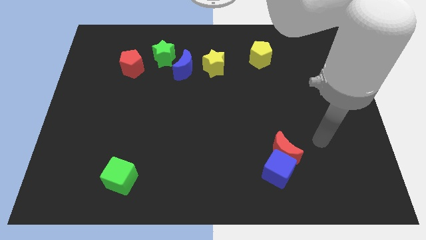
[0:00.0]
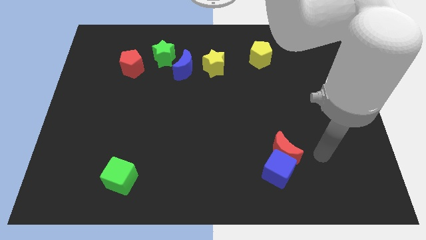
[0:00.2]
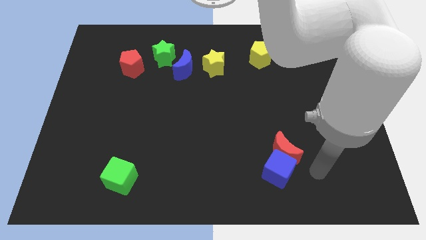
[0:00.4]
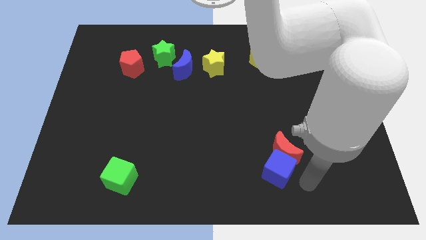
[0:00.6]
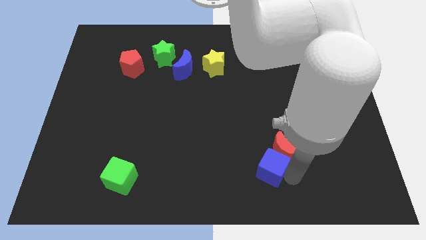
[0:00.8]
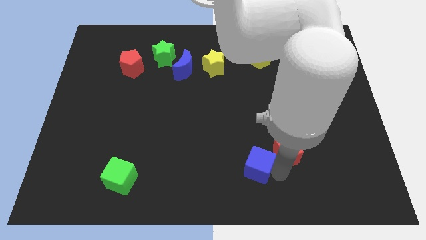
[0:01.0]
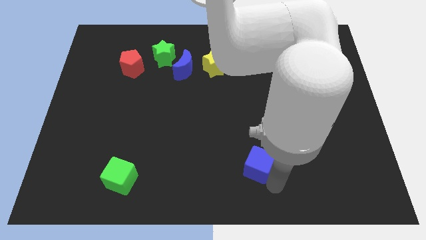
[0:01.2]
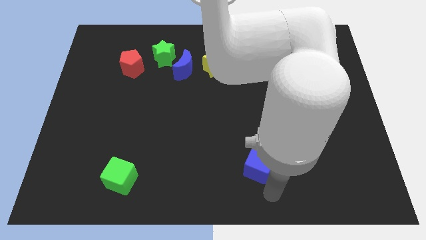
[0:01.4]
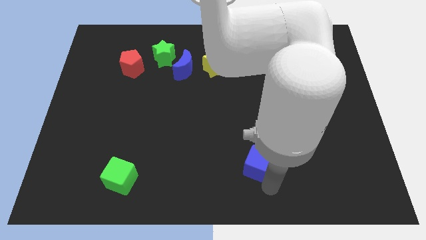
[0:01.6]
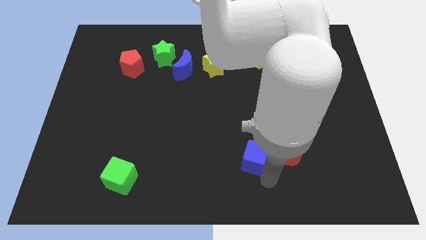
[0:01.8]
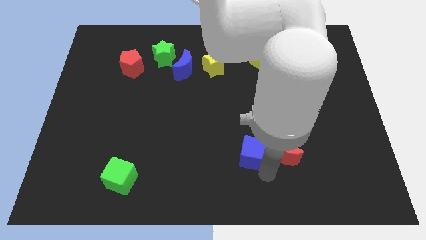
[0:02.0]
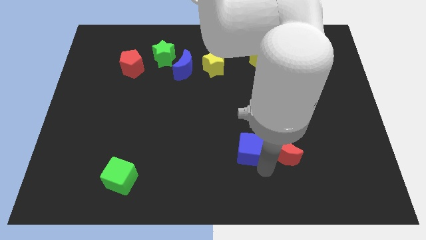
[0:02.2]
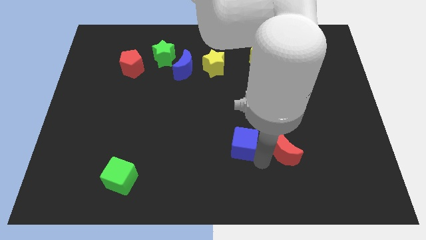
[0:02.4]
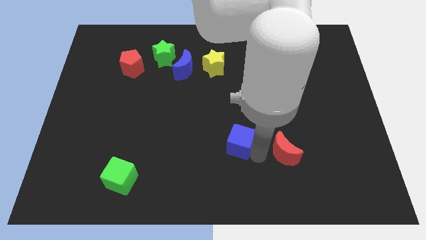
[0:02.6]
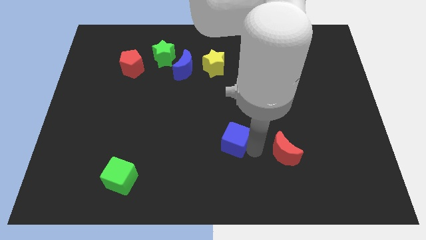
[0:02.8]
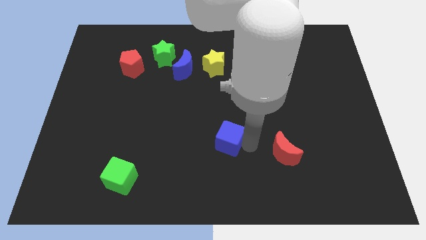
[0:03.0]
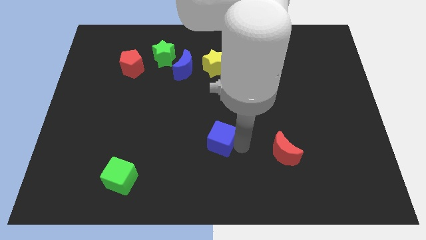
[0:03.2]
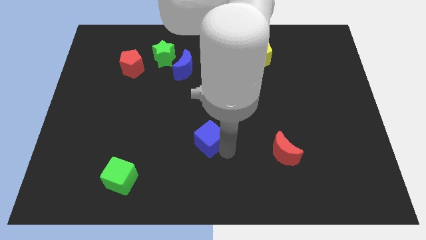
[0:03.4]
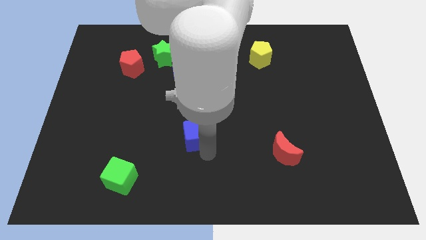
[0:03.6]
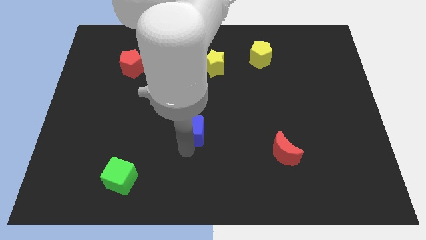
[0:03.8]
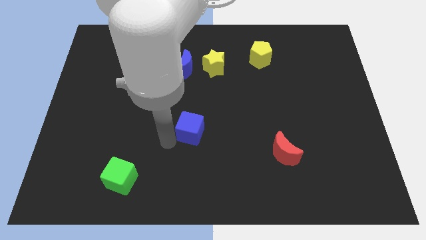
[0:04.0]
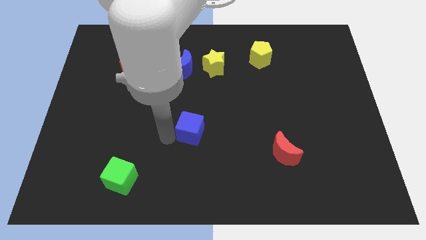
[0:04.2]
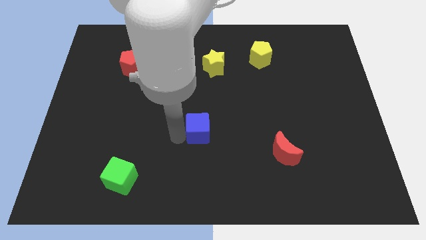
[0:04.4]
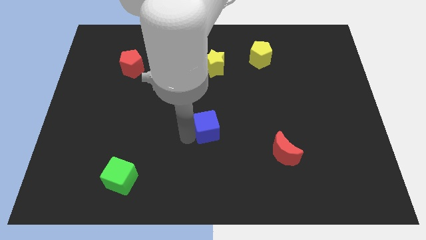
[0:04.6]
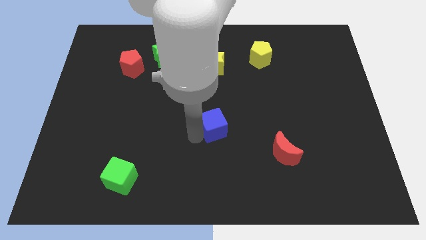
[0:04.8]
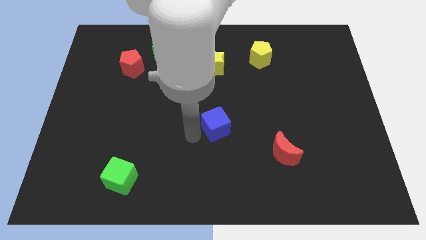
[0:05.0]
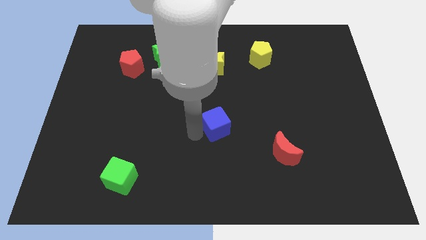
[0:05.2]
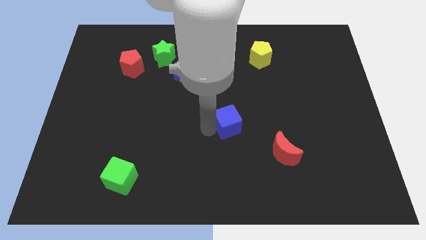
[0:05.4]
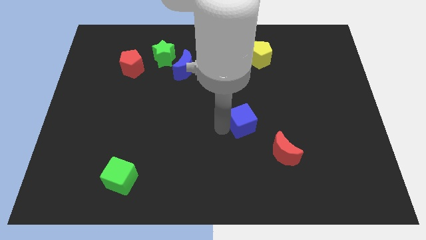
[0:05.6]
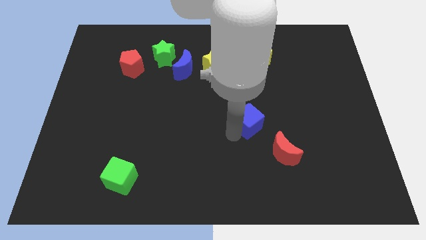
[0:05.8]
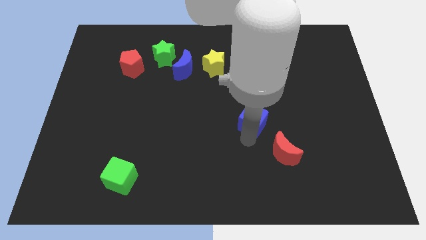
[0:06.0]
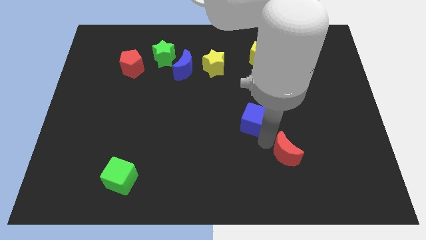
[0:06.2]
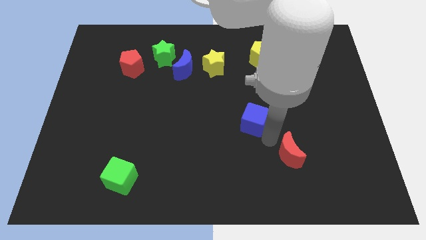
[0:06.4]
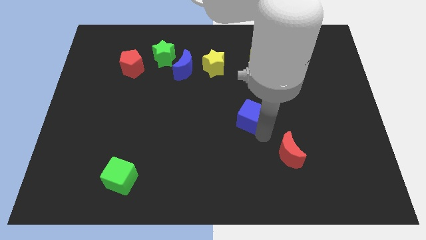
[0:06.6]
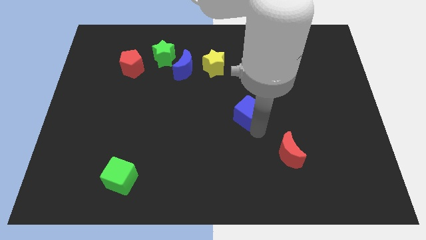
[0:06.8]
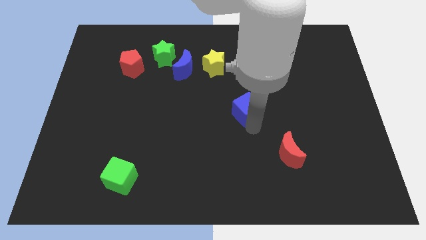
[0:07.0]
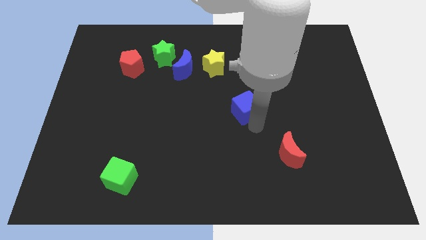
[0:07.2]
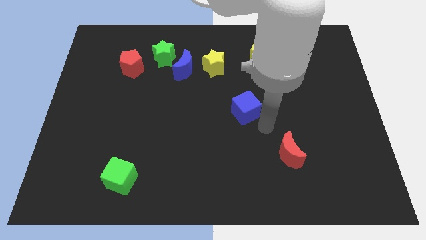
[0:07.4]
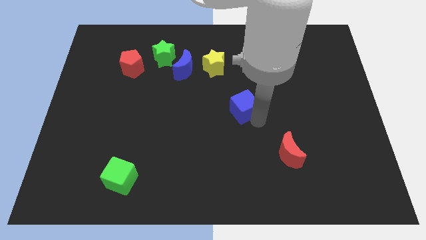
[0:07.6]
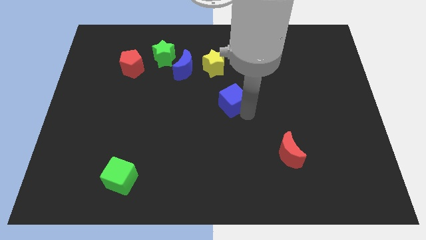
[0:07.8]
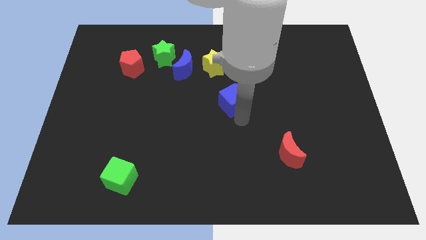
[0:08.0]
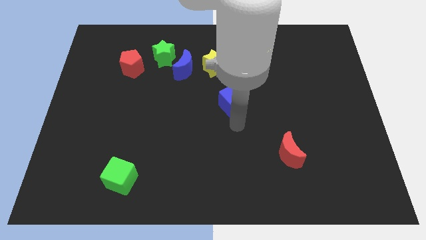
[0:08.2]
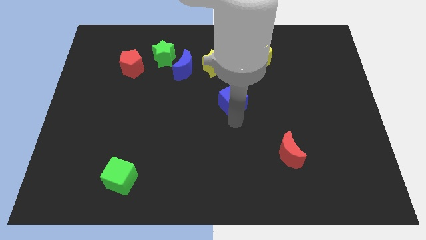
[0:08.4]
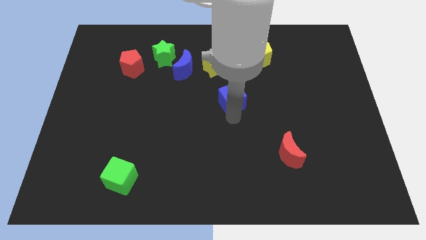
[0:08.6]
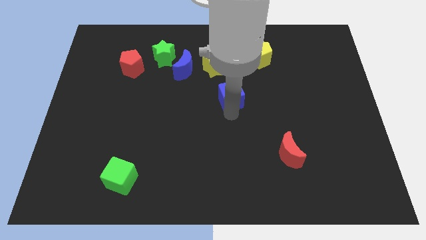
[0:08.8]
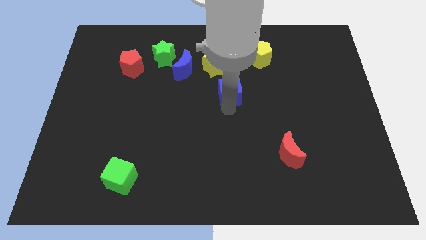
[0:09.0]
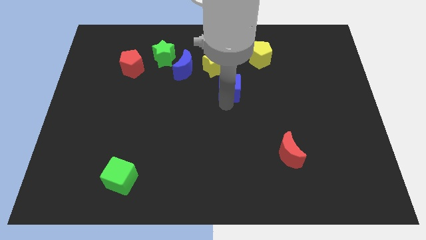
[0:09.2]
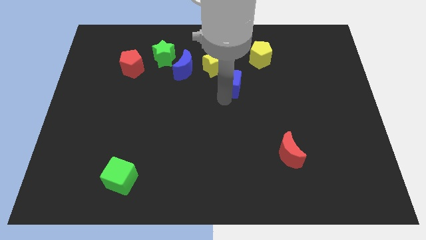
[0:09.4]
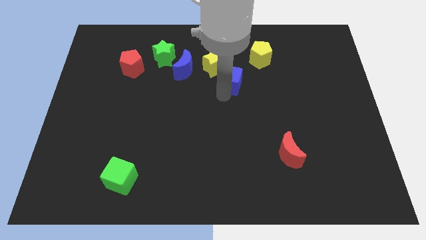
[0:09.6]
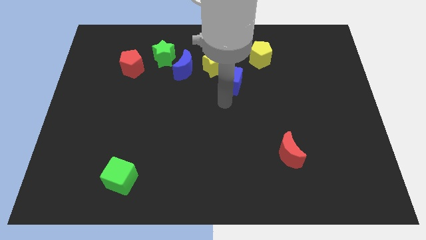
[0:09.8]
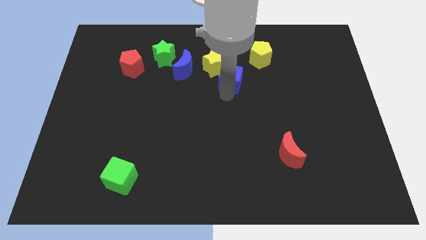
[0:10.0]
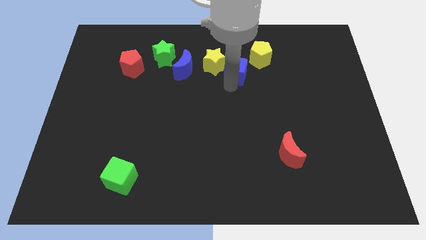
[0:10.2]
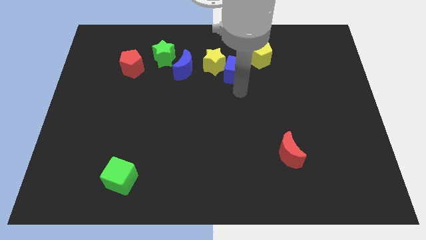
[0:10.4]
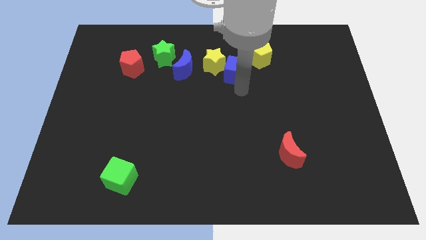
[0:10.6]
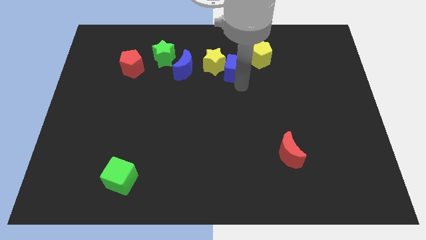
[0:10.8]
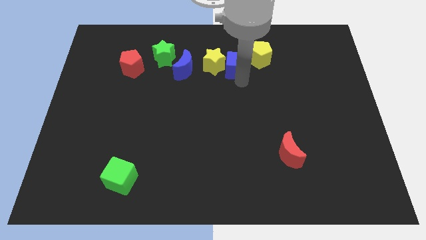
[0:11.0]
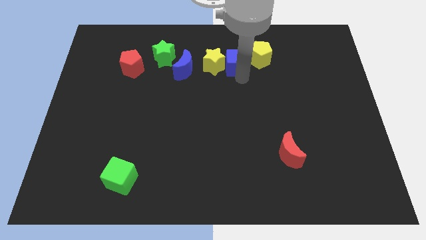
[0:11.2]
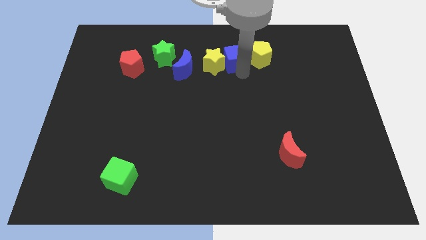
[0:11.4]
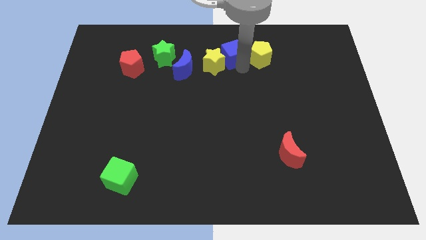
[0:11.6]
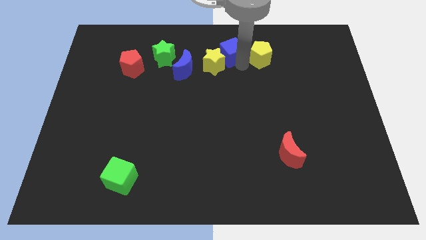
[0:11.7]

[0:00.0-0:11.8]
slide the blue cube to the top

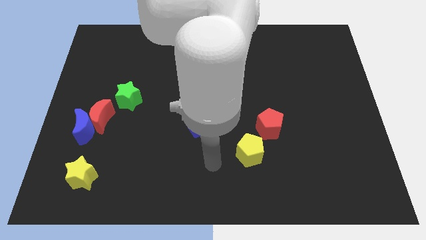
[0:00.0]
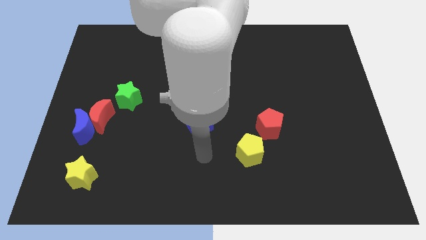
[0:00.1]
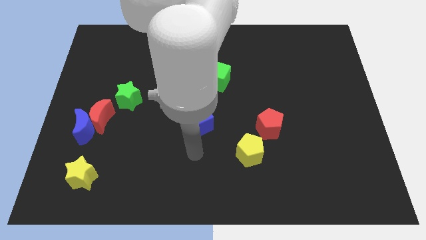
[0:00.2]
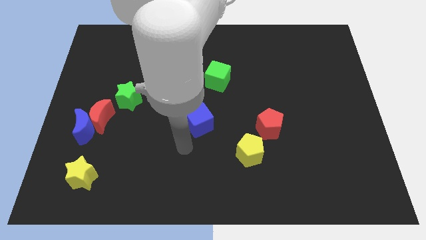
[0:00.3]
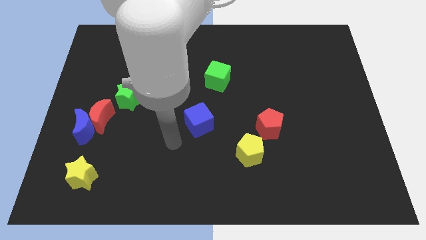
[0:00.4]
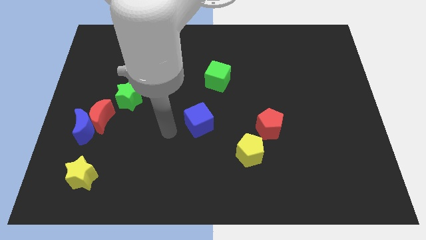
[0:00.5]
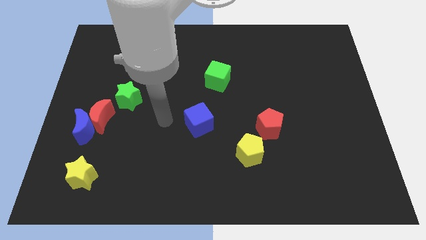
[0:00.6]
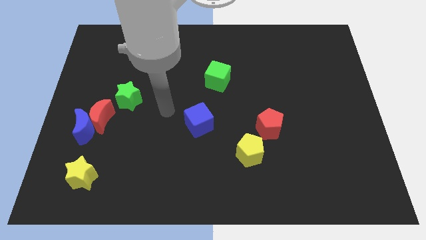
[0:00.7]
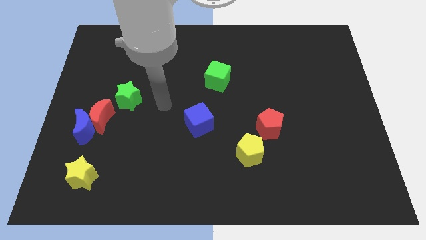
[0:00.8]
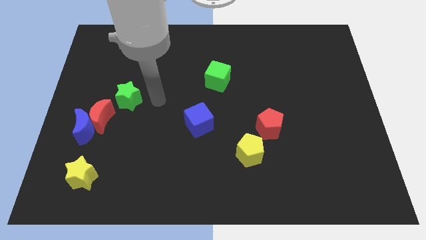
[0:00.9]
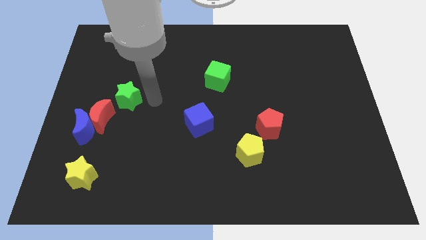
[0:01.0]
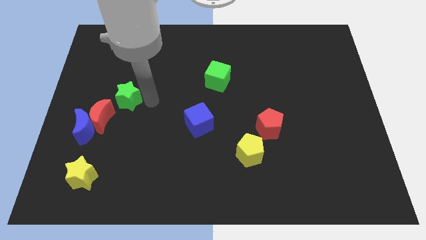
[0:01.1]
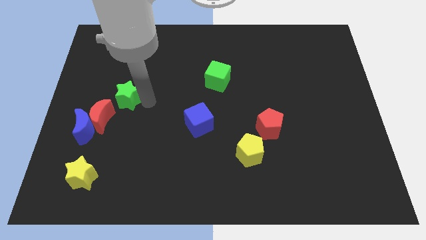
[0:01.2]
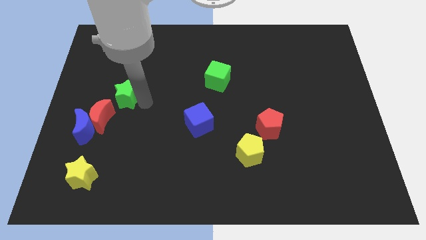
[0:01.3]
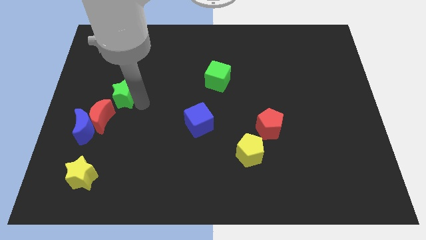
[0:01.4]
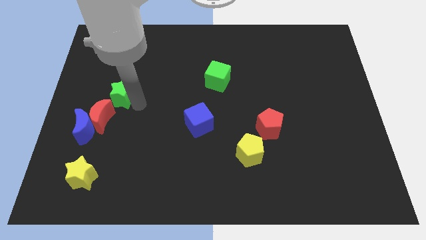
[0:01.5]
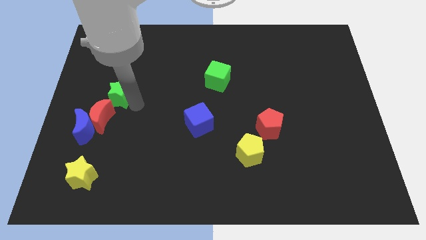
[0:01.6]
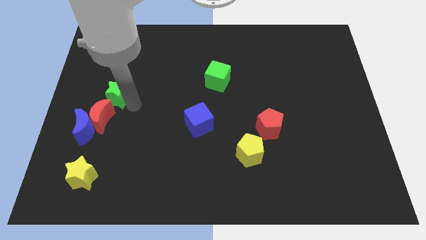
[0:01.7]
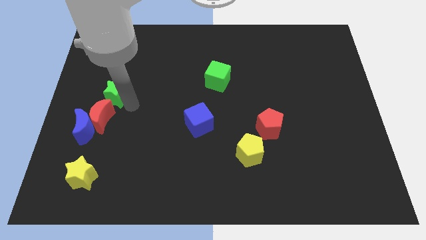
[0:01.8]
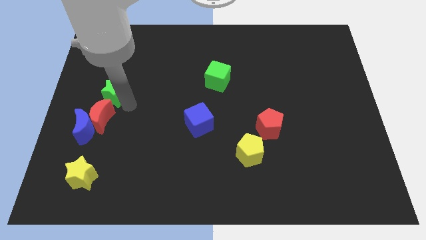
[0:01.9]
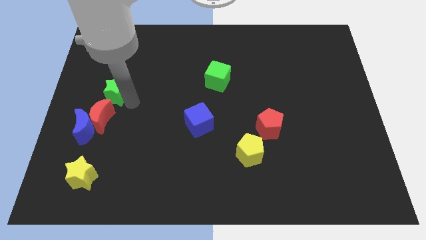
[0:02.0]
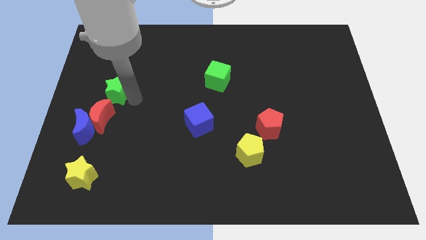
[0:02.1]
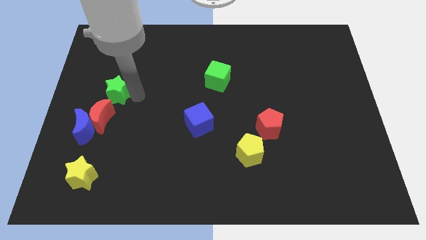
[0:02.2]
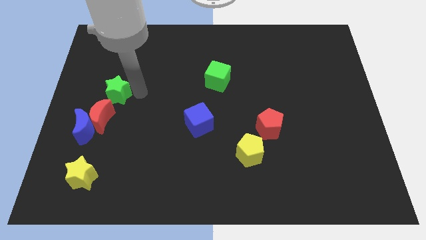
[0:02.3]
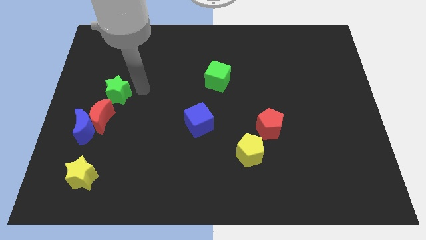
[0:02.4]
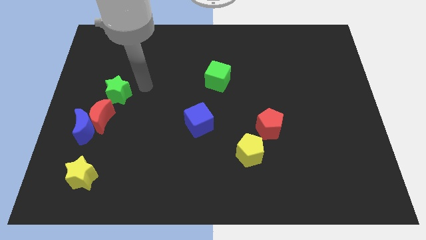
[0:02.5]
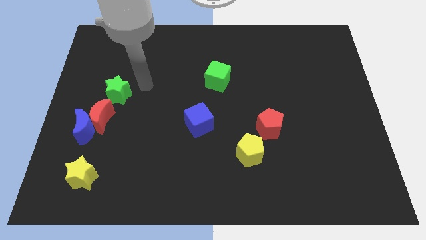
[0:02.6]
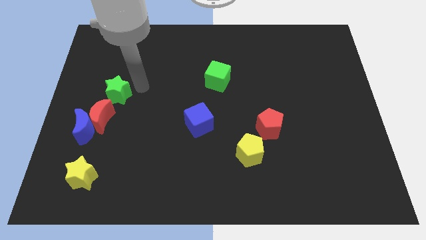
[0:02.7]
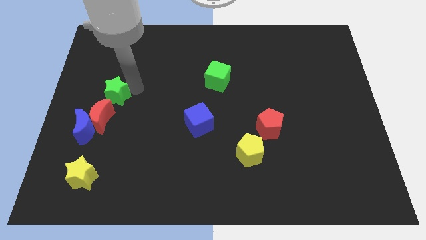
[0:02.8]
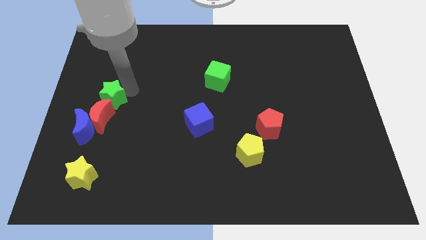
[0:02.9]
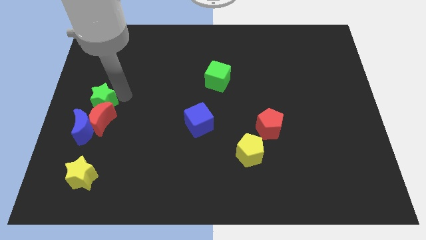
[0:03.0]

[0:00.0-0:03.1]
move the green star to the left side of the board
